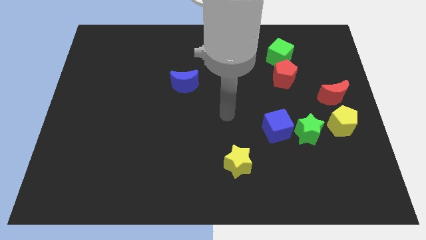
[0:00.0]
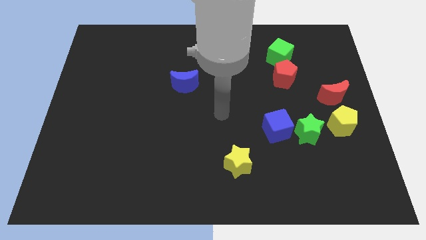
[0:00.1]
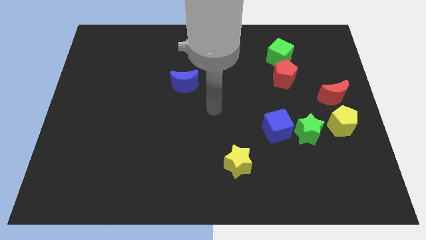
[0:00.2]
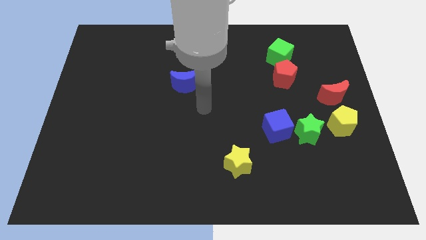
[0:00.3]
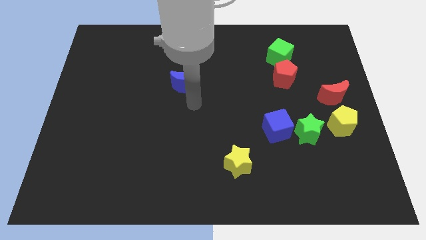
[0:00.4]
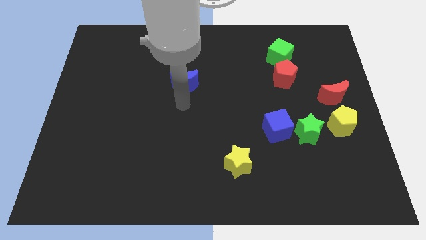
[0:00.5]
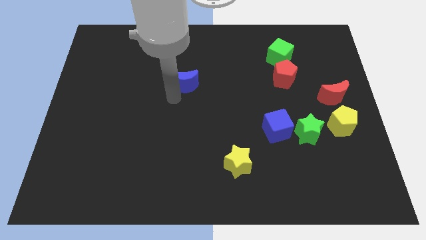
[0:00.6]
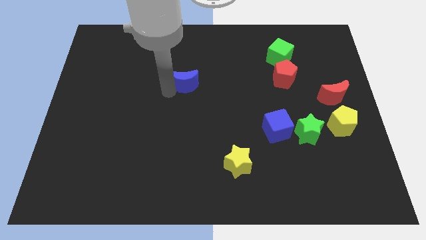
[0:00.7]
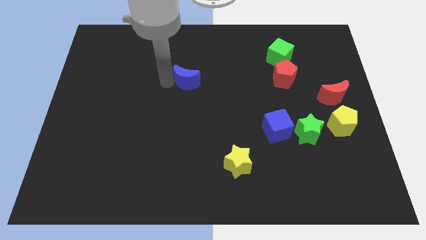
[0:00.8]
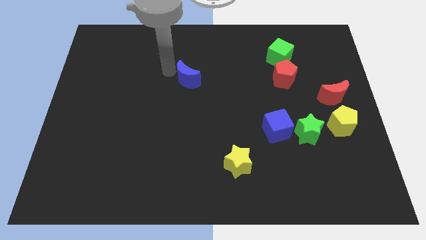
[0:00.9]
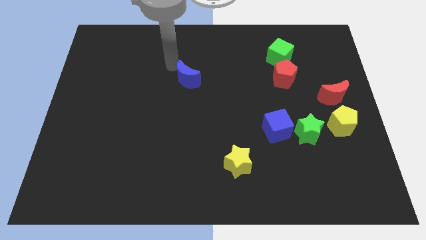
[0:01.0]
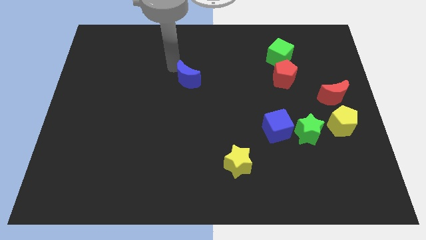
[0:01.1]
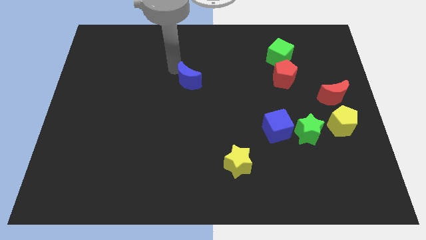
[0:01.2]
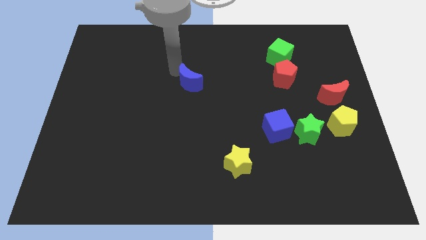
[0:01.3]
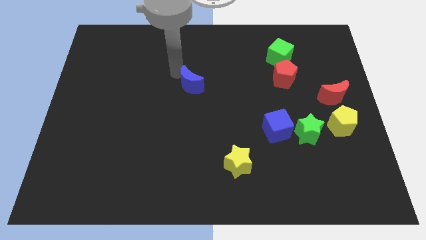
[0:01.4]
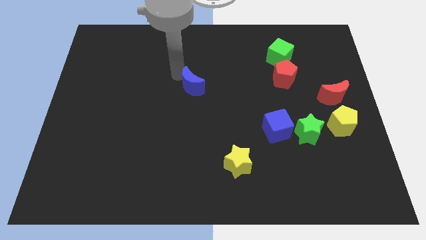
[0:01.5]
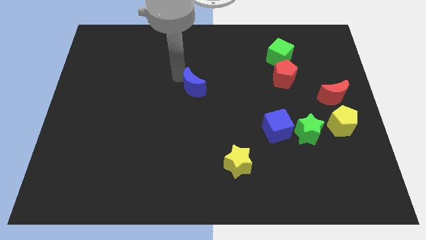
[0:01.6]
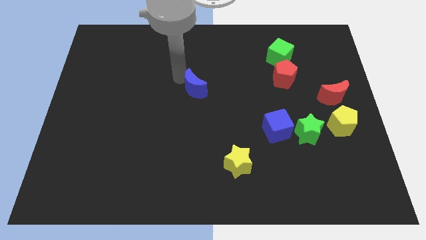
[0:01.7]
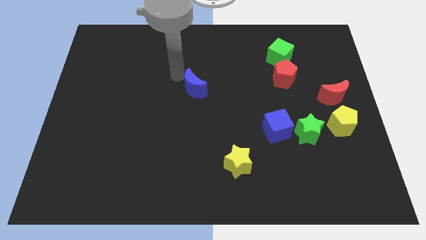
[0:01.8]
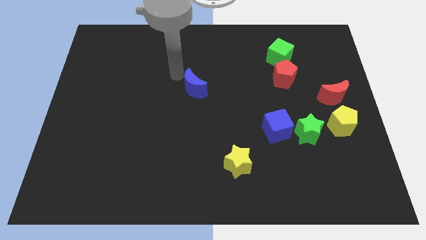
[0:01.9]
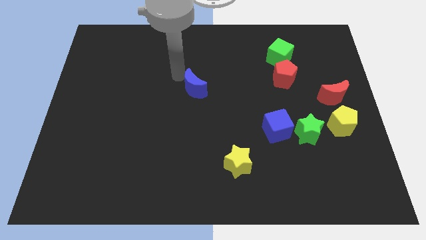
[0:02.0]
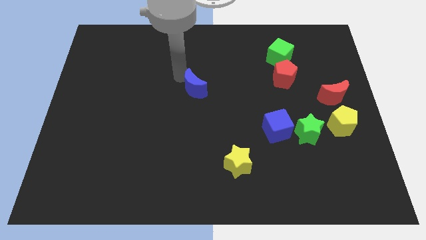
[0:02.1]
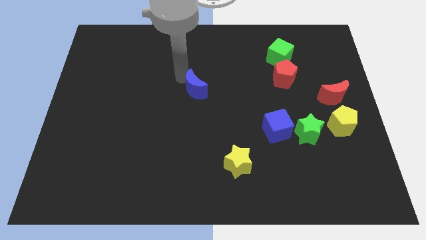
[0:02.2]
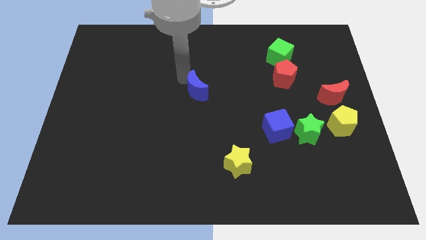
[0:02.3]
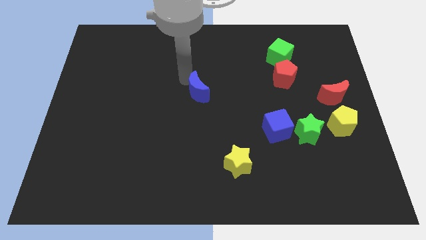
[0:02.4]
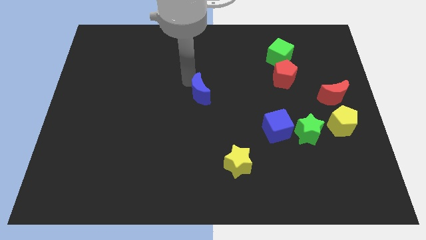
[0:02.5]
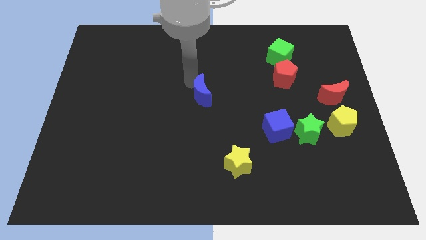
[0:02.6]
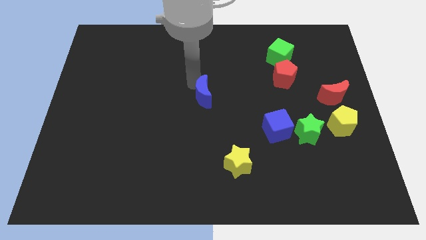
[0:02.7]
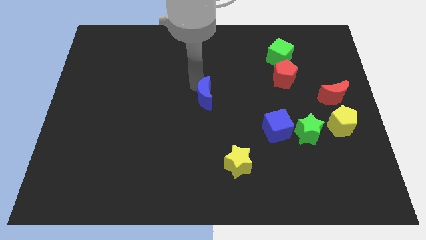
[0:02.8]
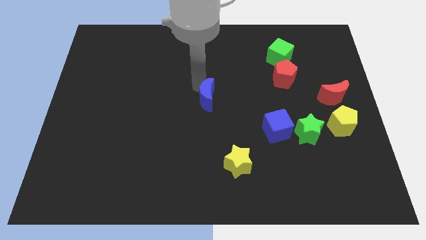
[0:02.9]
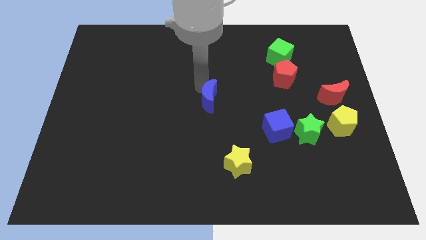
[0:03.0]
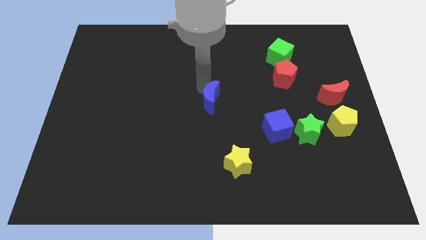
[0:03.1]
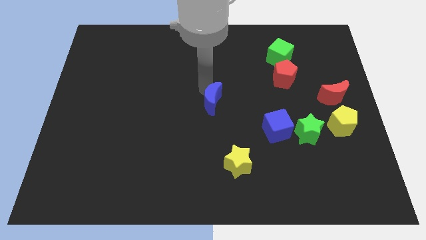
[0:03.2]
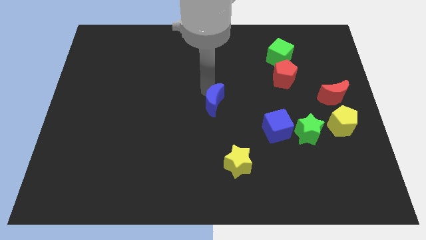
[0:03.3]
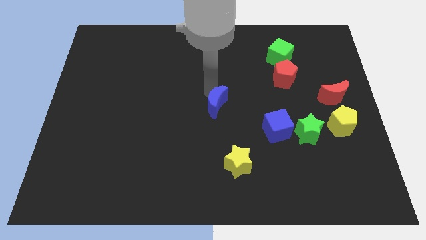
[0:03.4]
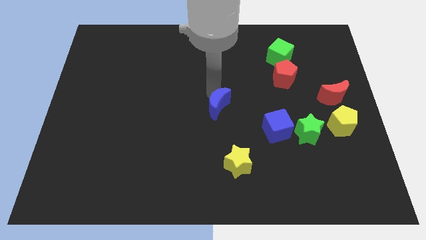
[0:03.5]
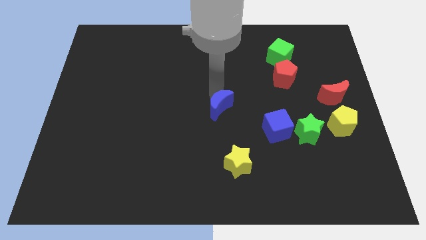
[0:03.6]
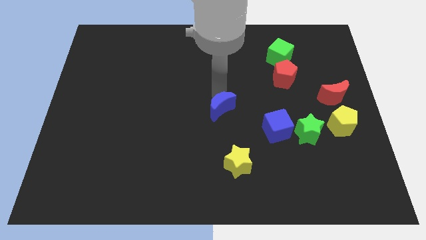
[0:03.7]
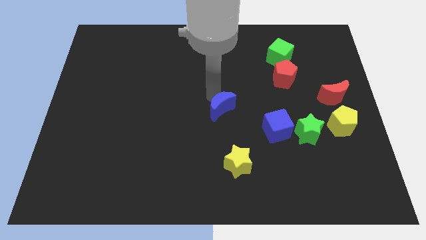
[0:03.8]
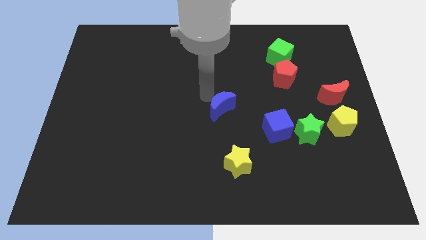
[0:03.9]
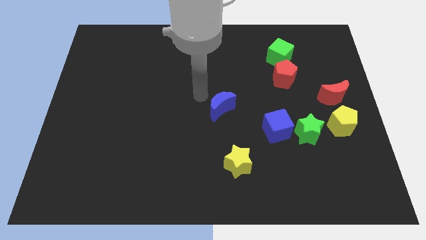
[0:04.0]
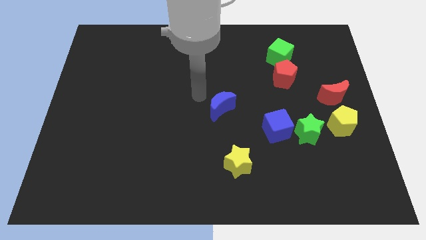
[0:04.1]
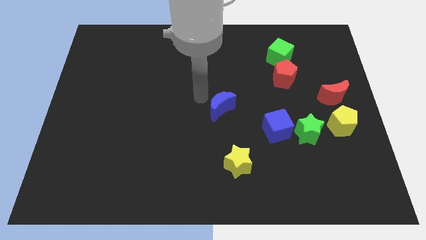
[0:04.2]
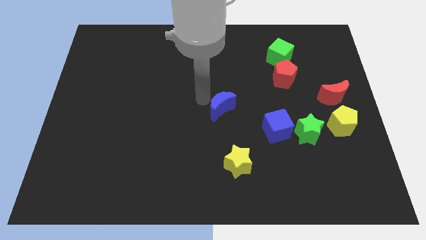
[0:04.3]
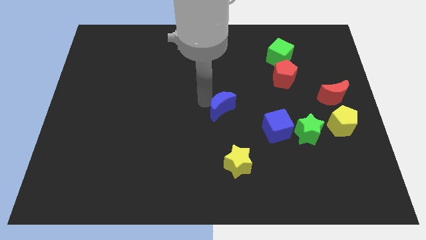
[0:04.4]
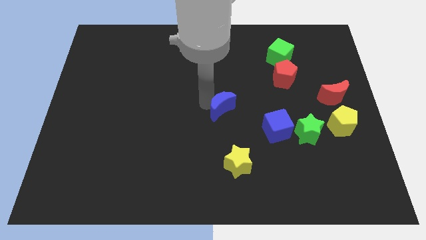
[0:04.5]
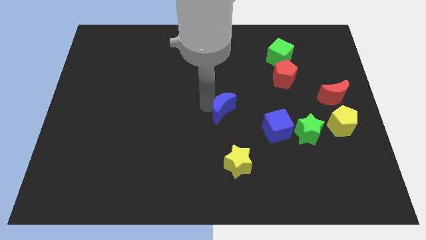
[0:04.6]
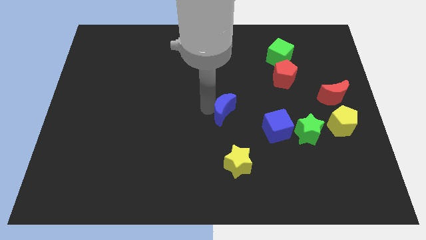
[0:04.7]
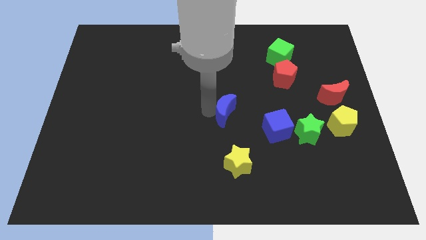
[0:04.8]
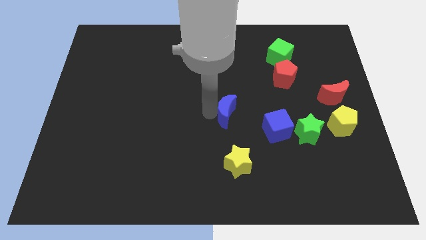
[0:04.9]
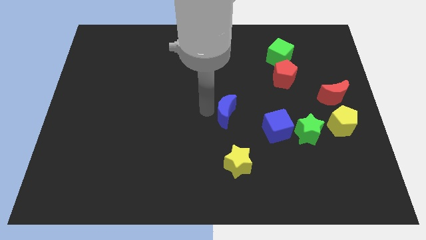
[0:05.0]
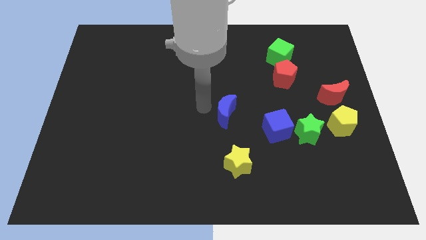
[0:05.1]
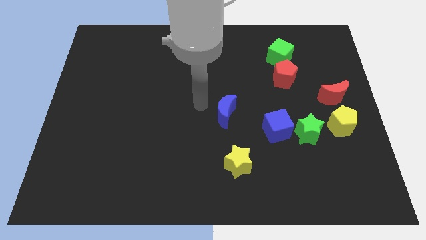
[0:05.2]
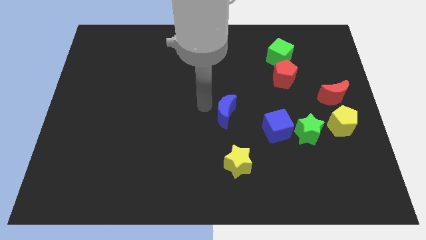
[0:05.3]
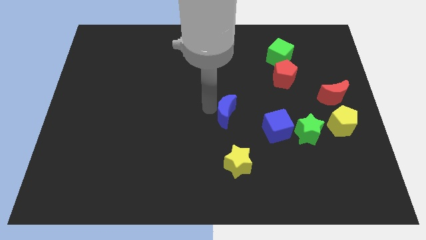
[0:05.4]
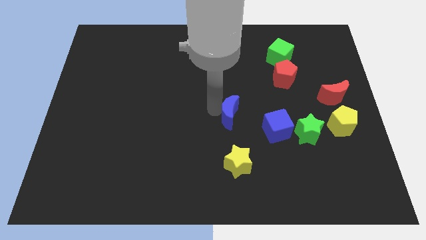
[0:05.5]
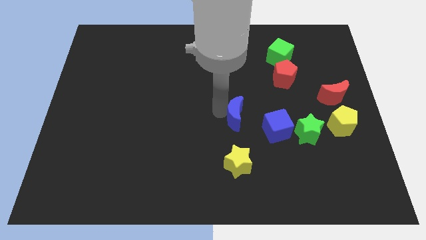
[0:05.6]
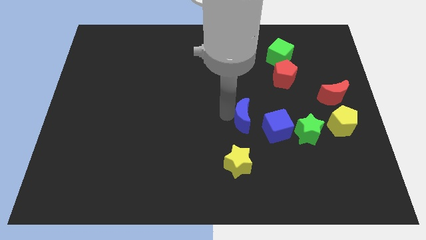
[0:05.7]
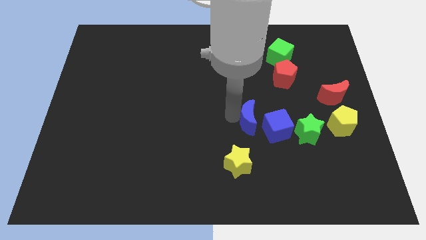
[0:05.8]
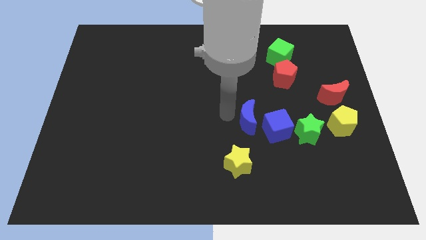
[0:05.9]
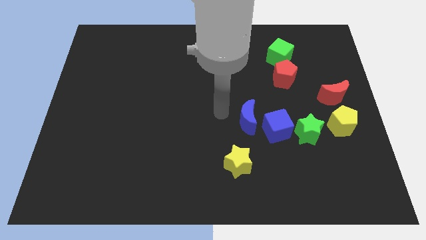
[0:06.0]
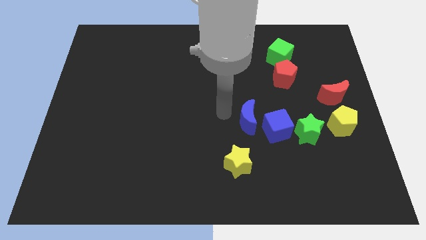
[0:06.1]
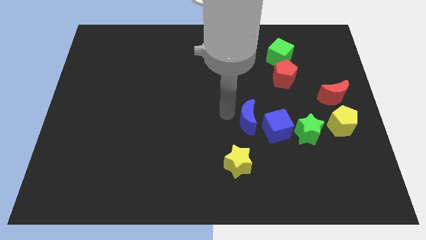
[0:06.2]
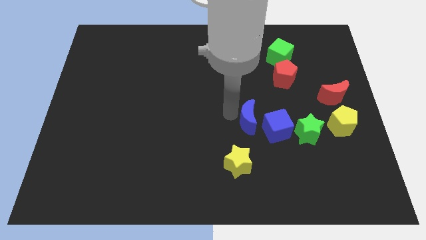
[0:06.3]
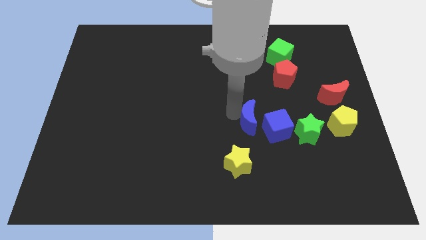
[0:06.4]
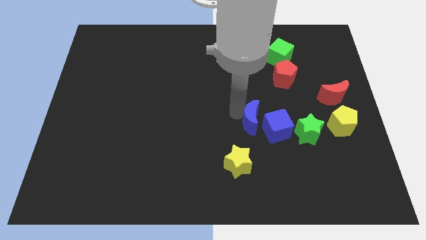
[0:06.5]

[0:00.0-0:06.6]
move the blue moon next to the blue cube

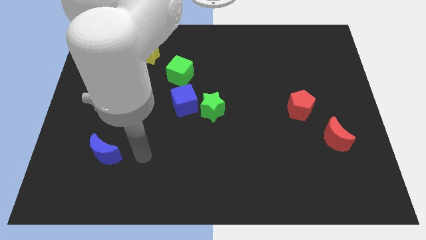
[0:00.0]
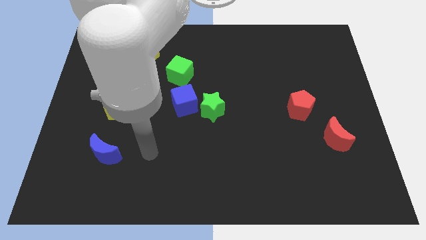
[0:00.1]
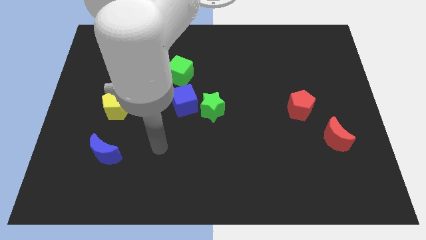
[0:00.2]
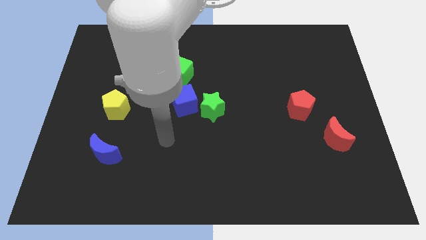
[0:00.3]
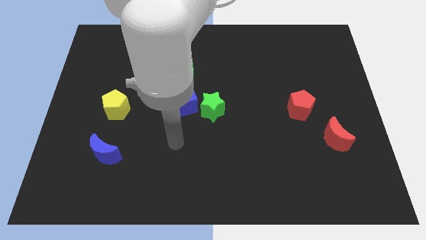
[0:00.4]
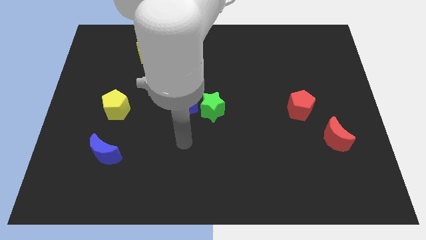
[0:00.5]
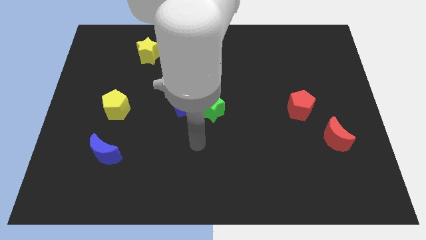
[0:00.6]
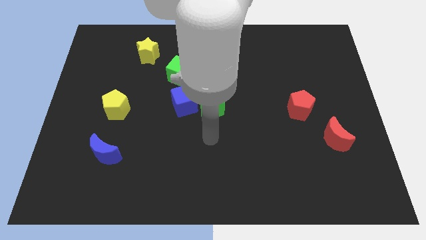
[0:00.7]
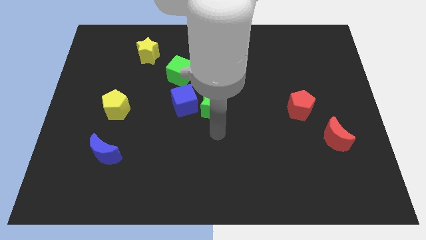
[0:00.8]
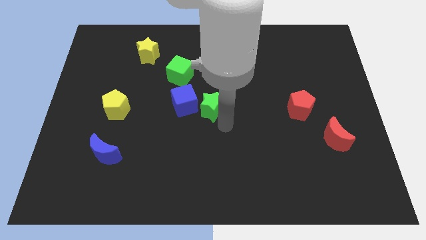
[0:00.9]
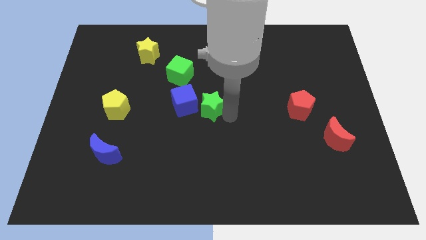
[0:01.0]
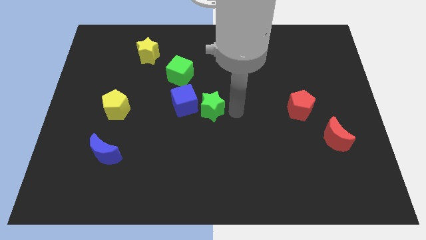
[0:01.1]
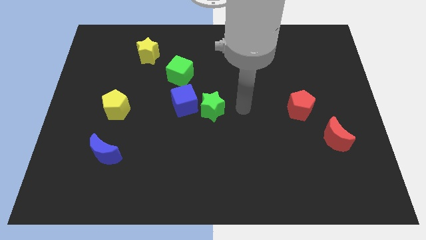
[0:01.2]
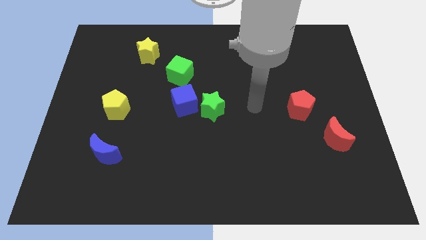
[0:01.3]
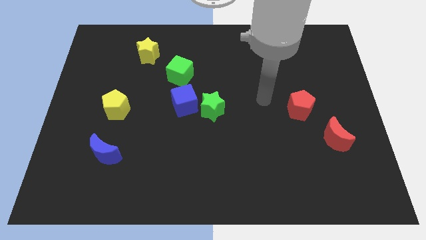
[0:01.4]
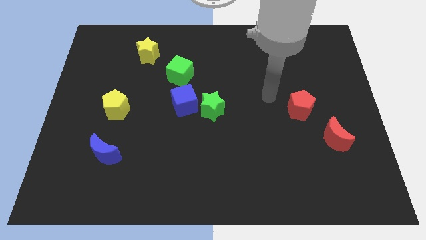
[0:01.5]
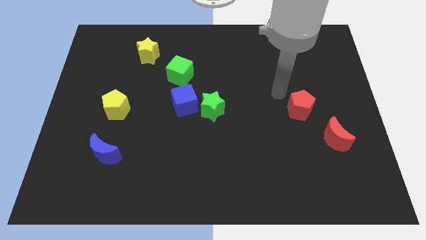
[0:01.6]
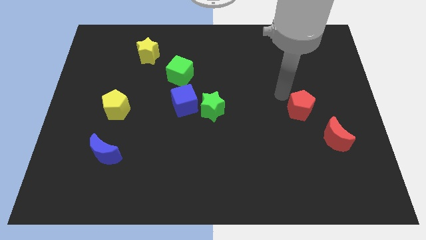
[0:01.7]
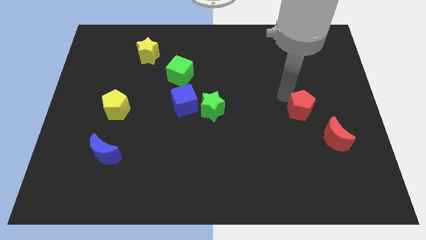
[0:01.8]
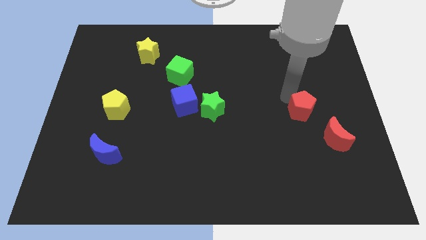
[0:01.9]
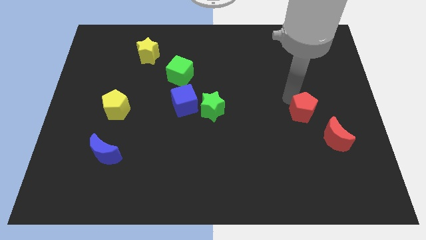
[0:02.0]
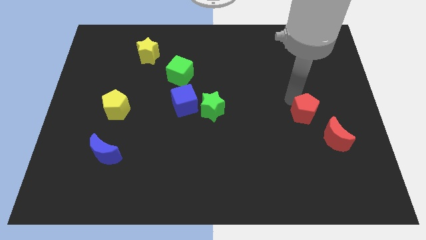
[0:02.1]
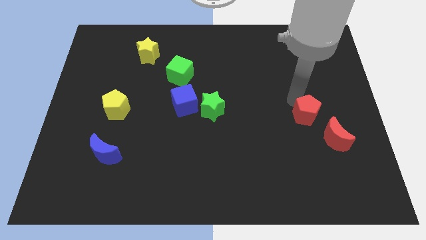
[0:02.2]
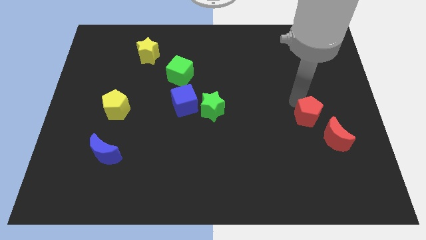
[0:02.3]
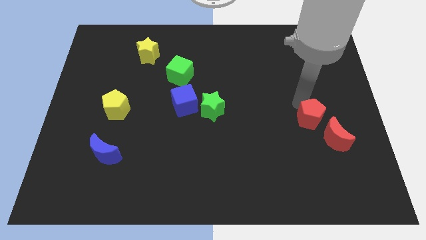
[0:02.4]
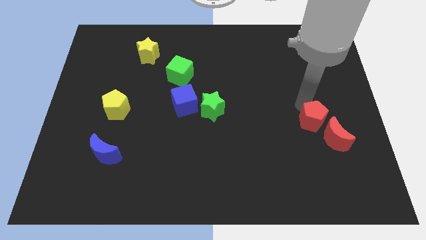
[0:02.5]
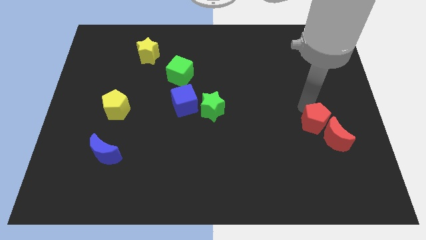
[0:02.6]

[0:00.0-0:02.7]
slide the red pentagon to the red moon
